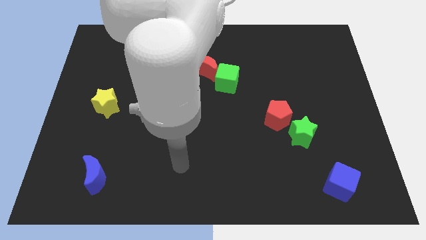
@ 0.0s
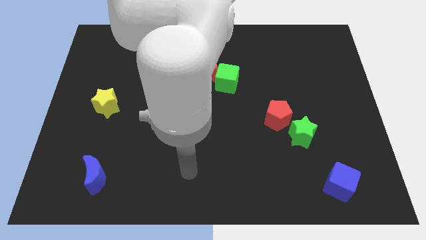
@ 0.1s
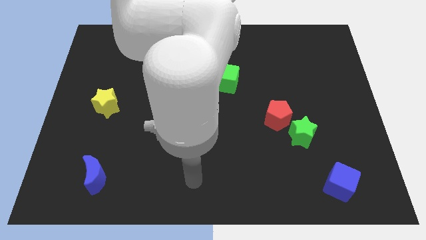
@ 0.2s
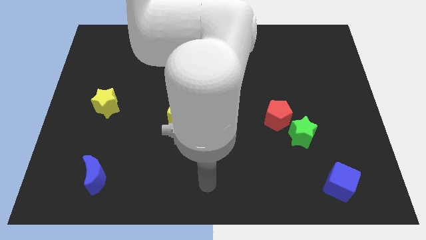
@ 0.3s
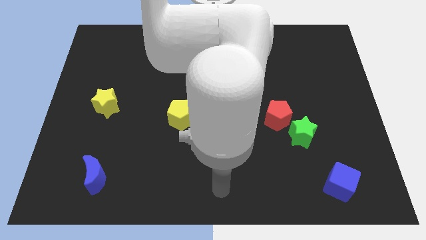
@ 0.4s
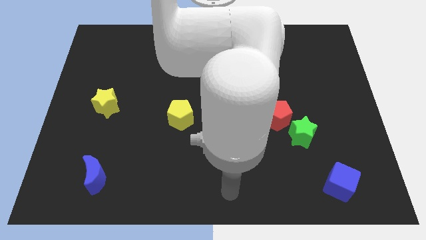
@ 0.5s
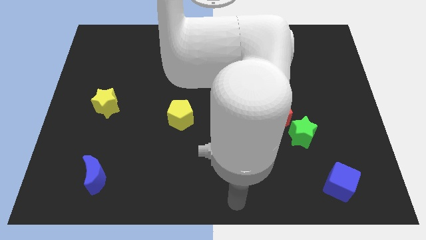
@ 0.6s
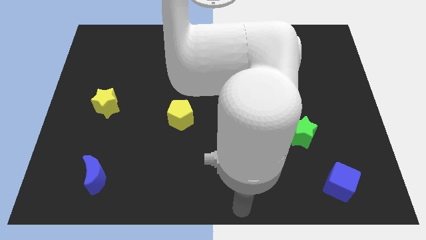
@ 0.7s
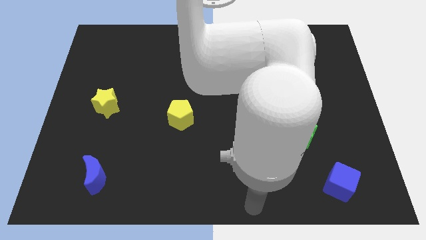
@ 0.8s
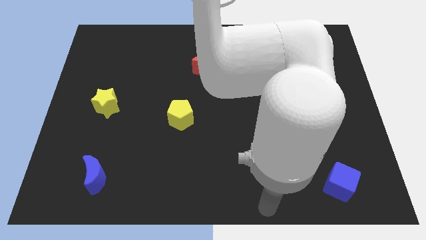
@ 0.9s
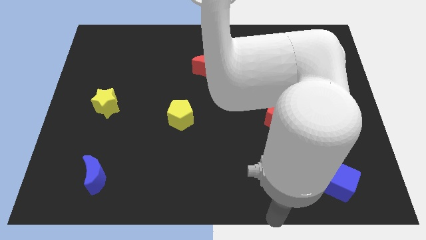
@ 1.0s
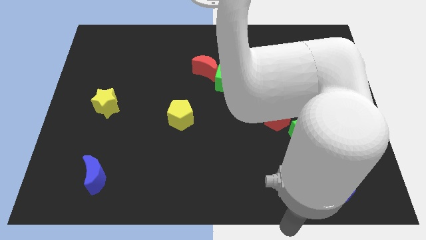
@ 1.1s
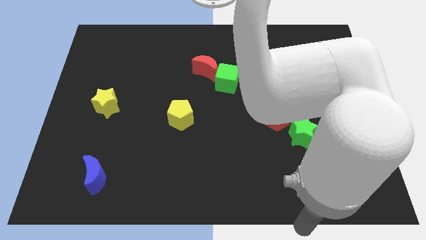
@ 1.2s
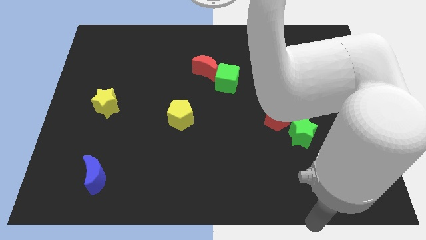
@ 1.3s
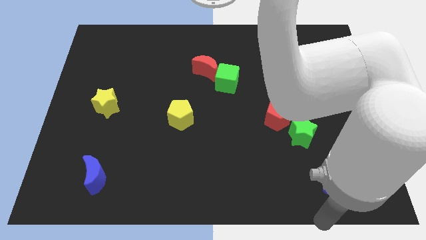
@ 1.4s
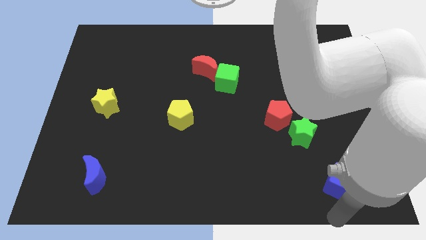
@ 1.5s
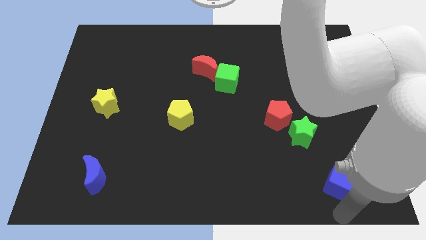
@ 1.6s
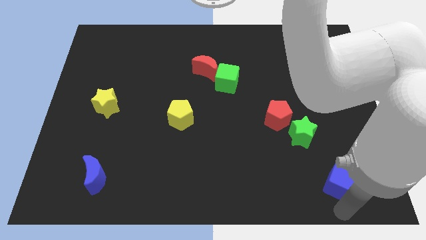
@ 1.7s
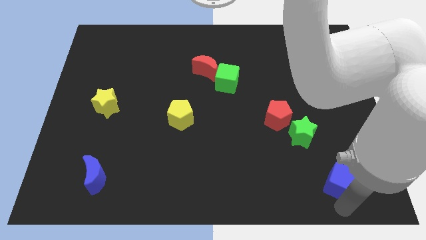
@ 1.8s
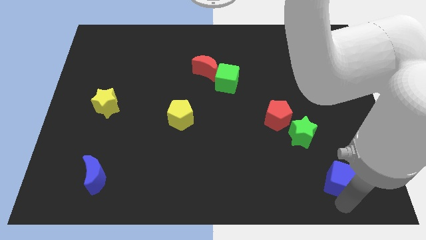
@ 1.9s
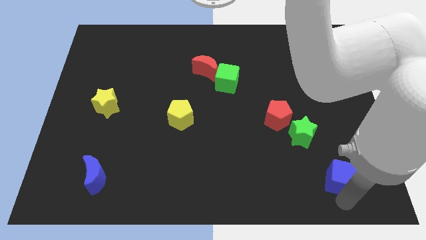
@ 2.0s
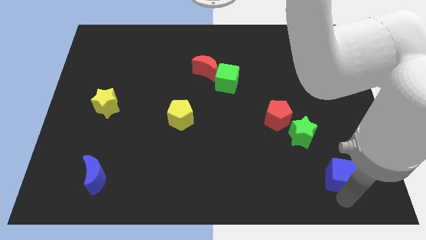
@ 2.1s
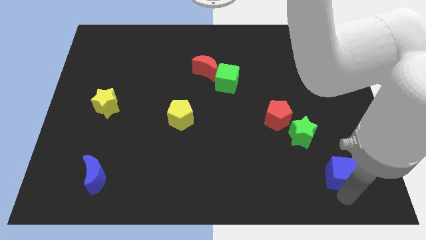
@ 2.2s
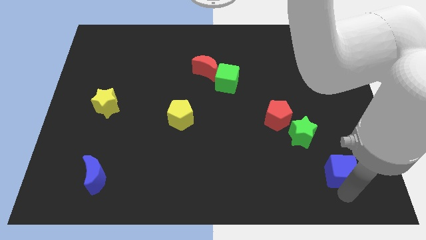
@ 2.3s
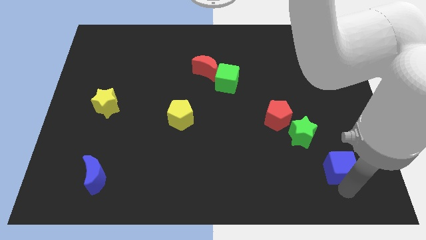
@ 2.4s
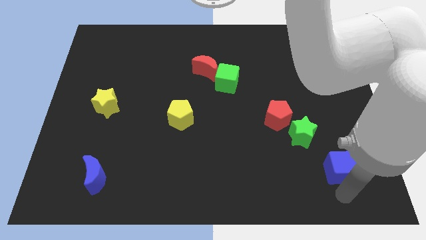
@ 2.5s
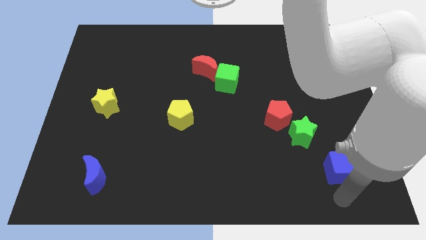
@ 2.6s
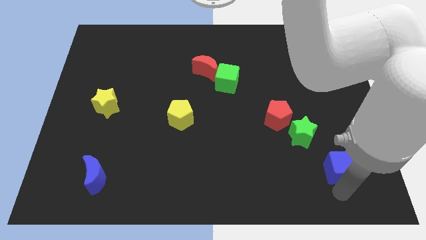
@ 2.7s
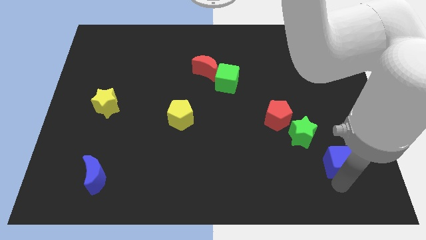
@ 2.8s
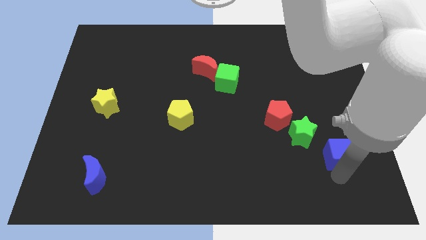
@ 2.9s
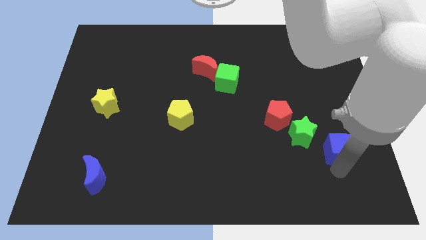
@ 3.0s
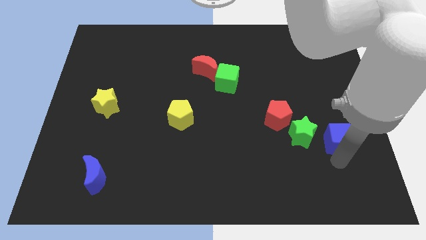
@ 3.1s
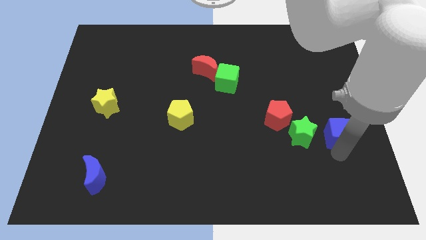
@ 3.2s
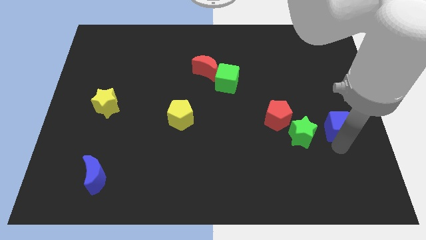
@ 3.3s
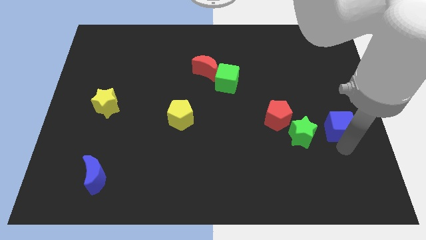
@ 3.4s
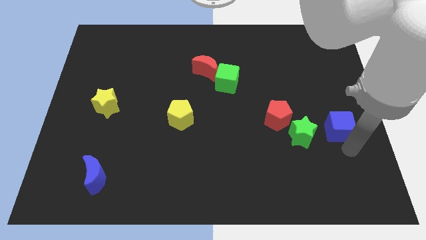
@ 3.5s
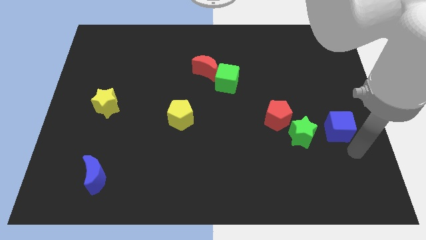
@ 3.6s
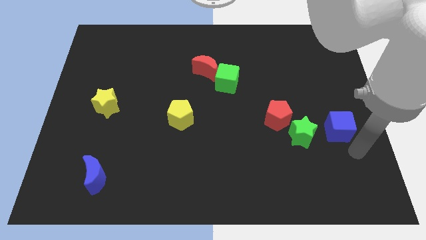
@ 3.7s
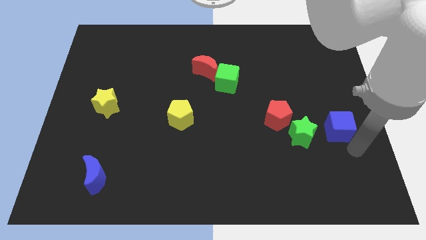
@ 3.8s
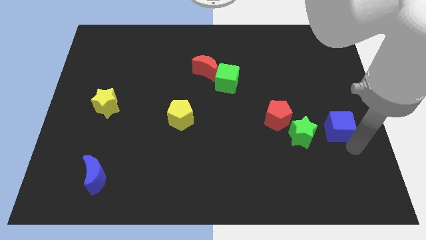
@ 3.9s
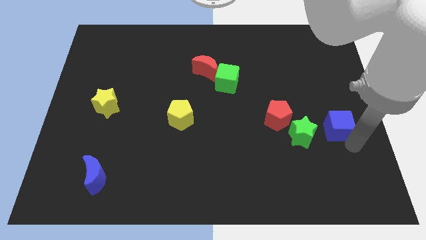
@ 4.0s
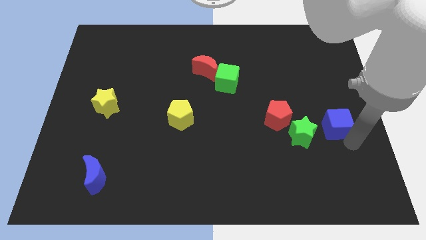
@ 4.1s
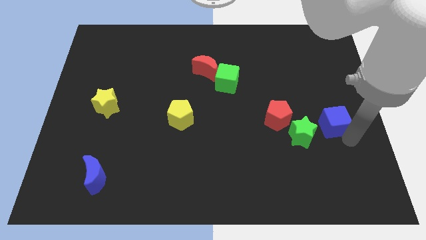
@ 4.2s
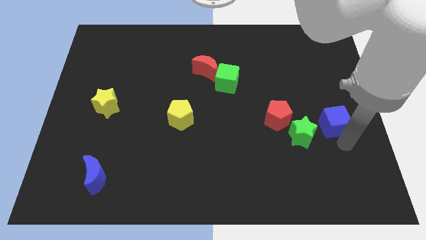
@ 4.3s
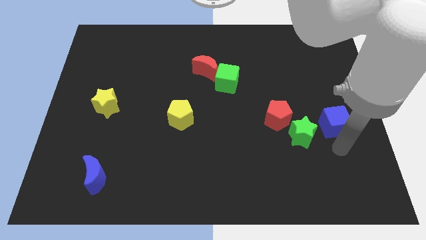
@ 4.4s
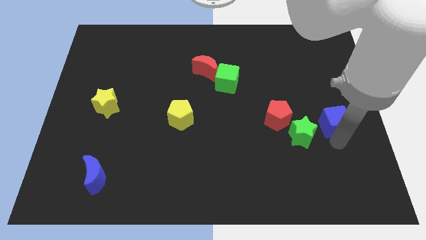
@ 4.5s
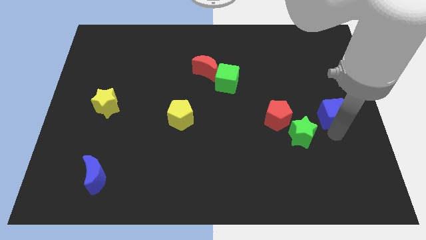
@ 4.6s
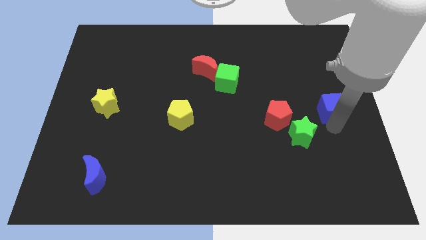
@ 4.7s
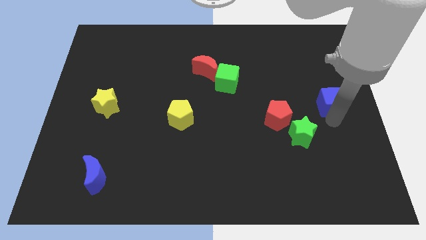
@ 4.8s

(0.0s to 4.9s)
slide the blue cube upwards

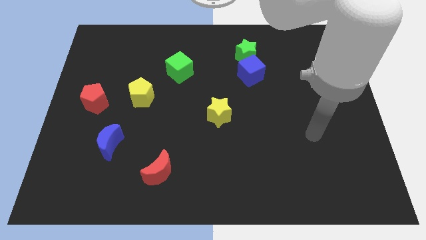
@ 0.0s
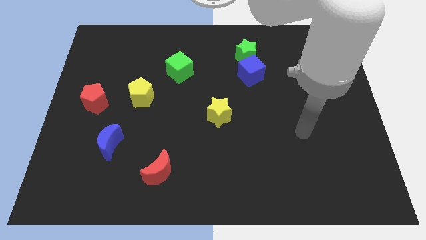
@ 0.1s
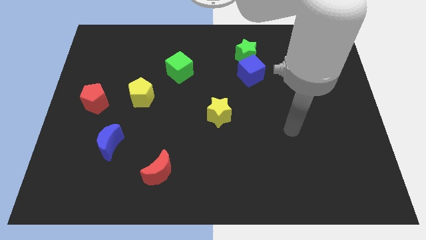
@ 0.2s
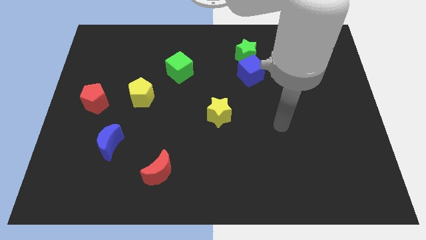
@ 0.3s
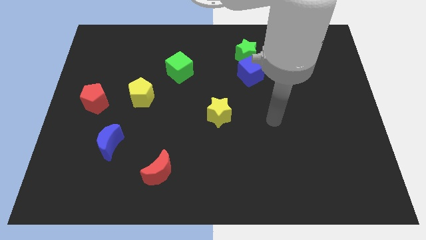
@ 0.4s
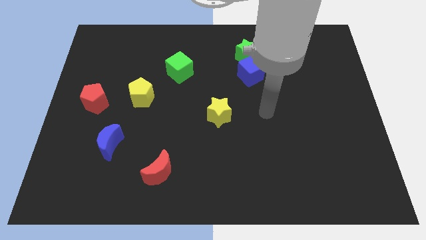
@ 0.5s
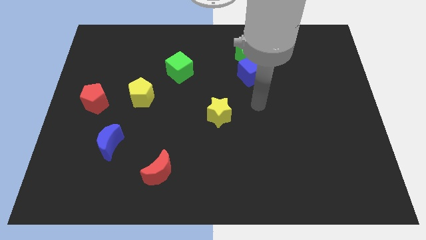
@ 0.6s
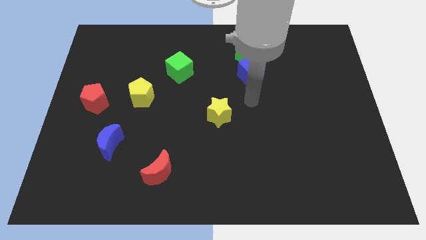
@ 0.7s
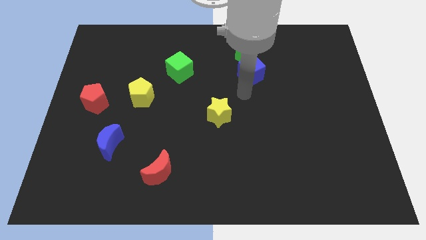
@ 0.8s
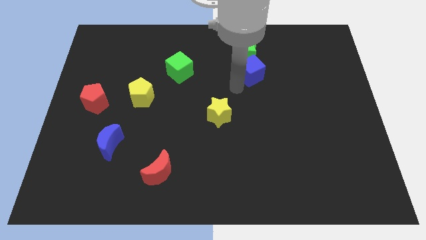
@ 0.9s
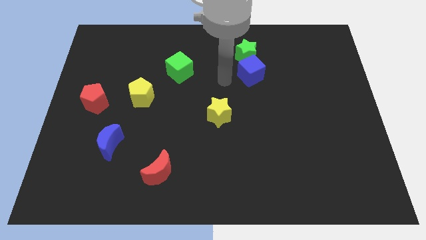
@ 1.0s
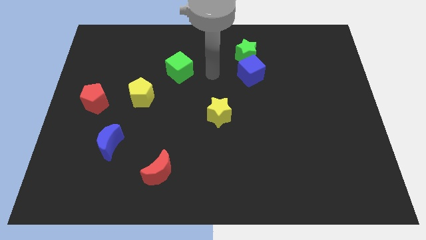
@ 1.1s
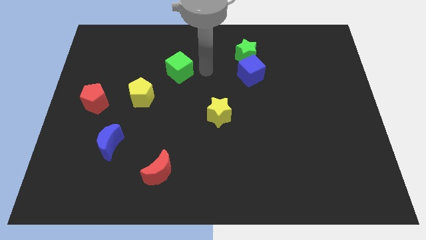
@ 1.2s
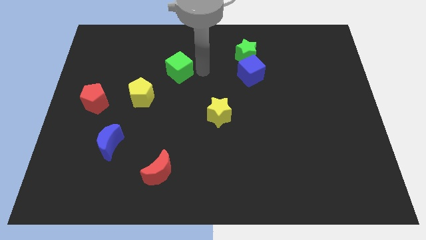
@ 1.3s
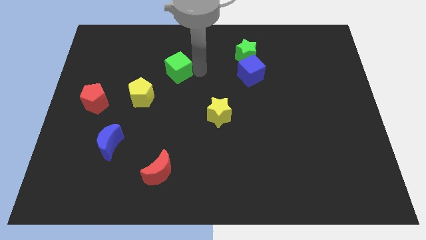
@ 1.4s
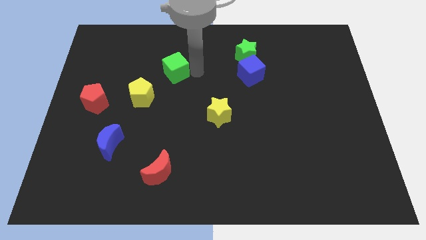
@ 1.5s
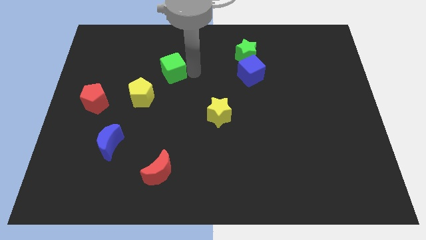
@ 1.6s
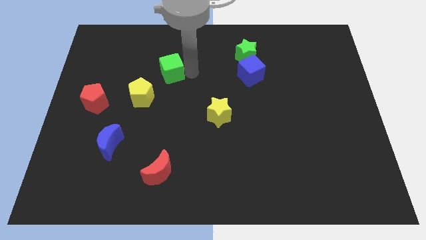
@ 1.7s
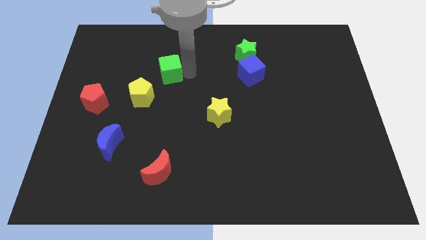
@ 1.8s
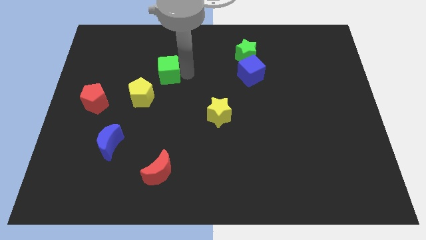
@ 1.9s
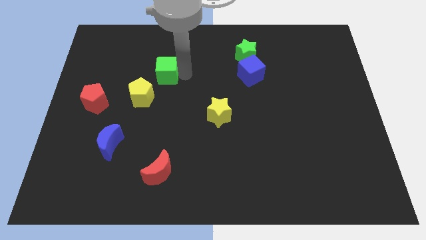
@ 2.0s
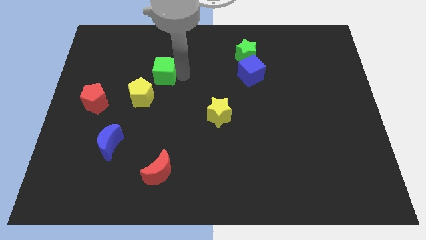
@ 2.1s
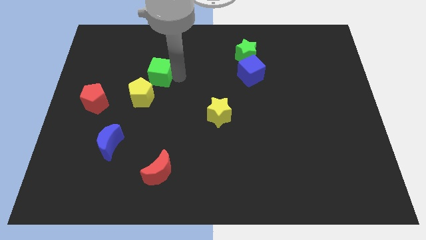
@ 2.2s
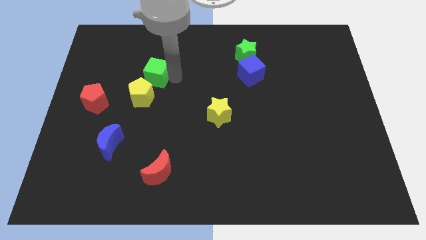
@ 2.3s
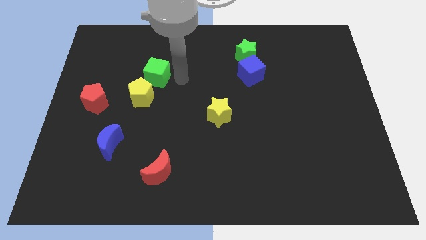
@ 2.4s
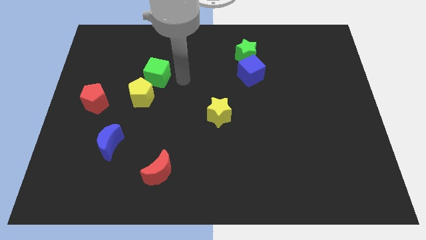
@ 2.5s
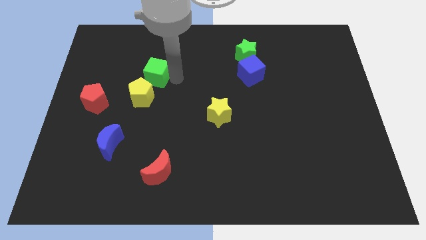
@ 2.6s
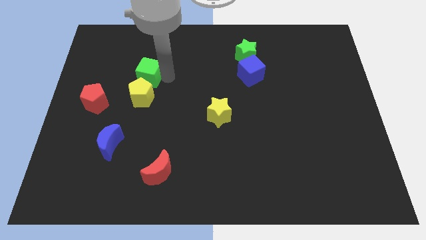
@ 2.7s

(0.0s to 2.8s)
slide the green cube to the left somewhat

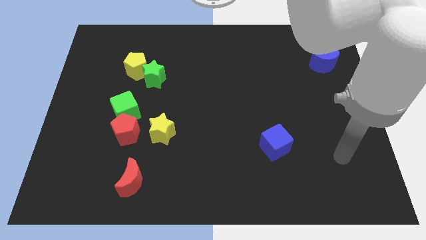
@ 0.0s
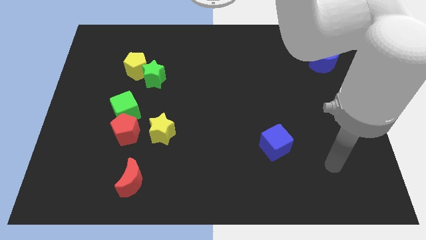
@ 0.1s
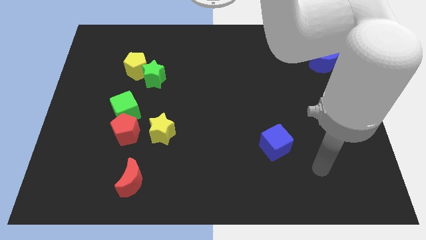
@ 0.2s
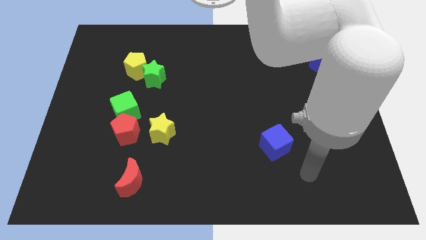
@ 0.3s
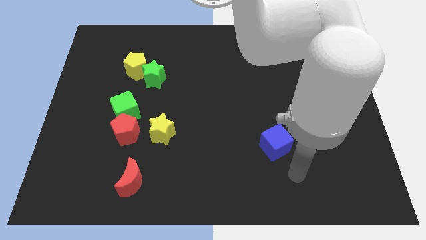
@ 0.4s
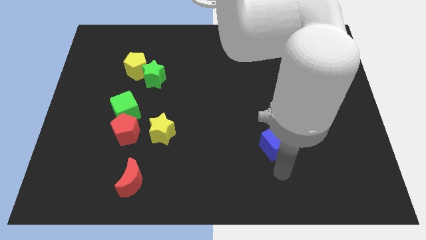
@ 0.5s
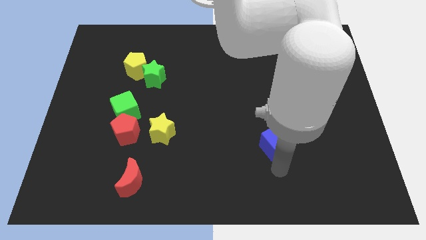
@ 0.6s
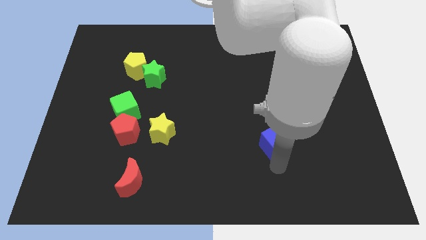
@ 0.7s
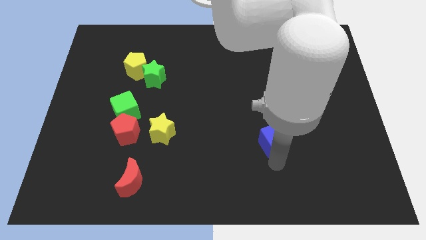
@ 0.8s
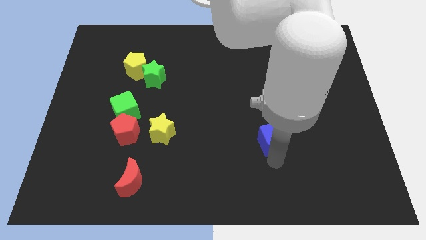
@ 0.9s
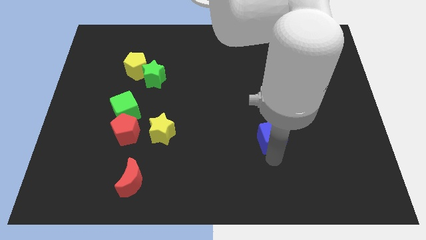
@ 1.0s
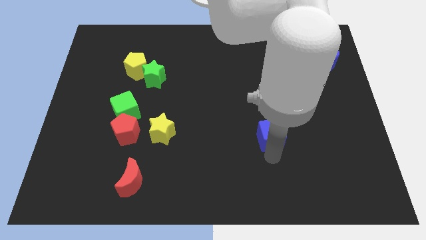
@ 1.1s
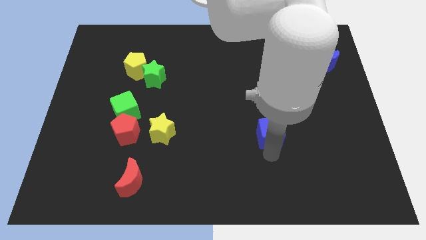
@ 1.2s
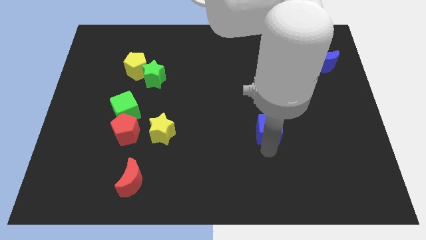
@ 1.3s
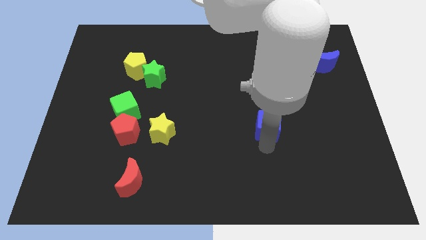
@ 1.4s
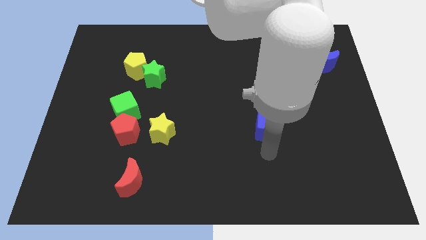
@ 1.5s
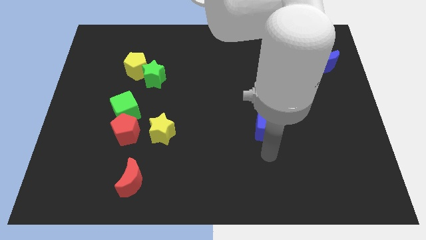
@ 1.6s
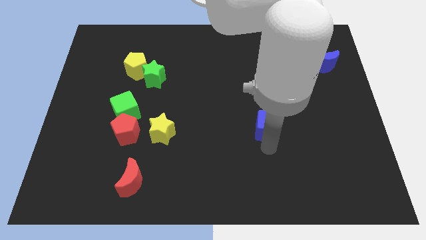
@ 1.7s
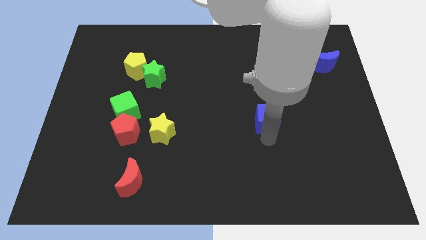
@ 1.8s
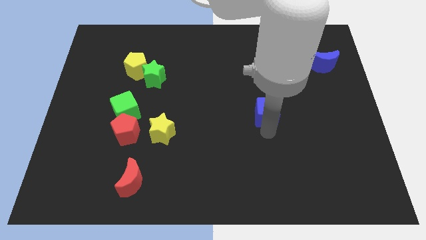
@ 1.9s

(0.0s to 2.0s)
move the blue cube somewhat up
